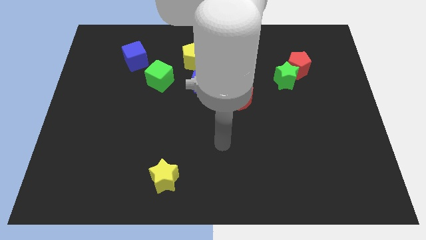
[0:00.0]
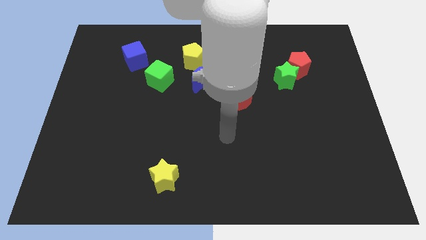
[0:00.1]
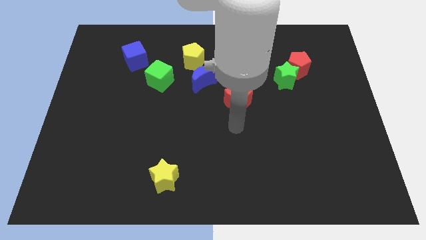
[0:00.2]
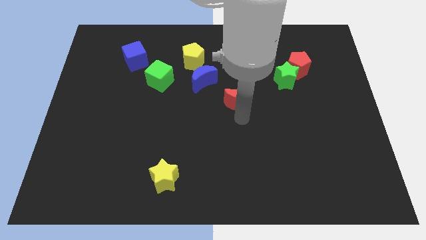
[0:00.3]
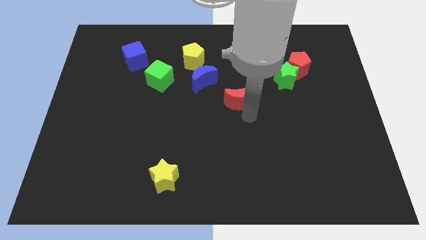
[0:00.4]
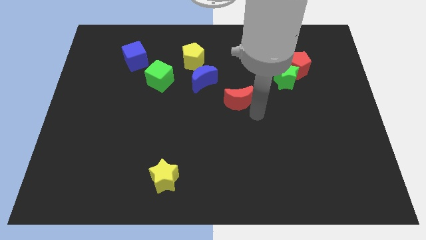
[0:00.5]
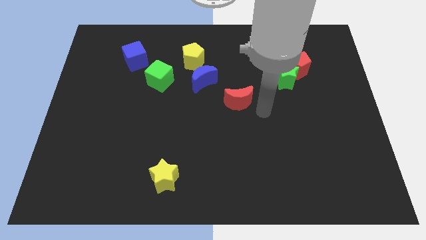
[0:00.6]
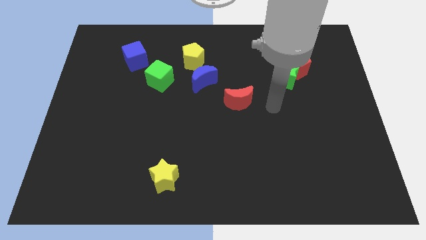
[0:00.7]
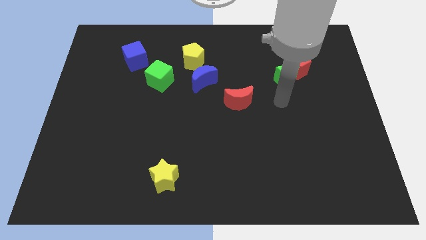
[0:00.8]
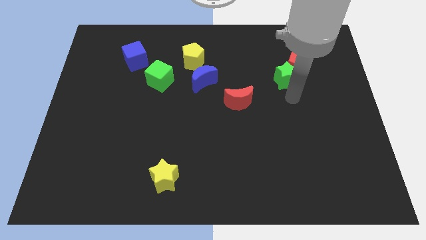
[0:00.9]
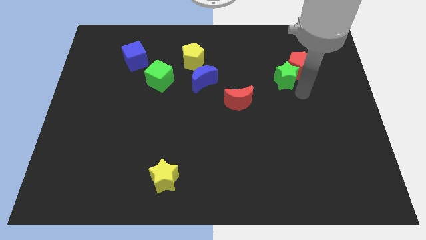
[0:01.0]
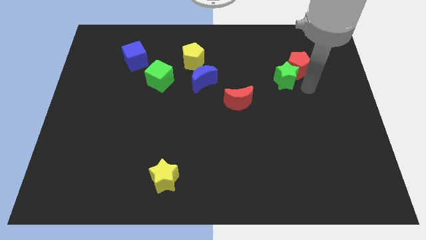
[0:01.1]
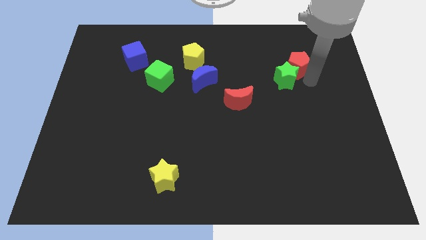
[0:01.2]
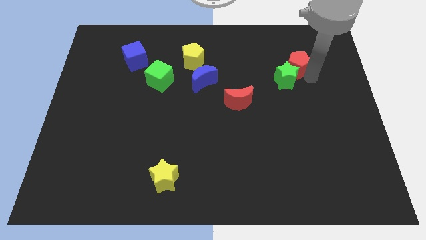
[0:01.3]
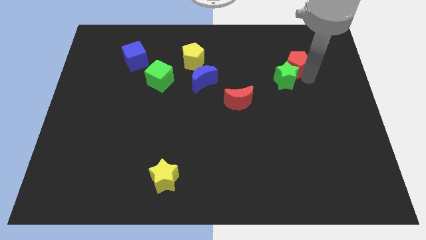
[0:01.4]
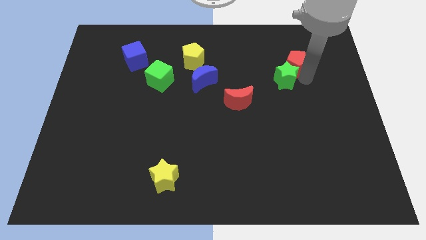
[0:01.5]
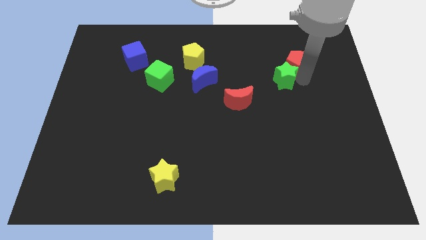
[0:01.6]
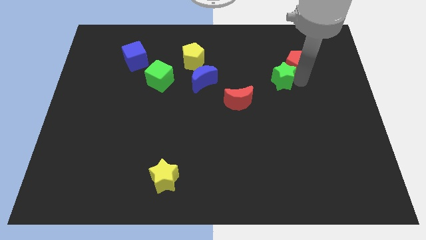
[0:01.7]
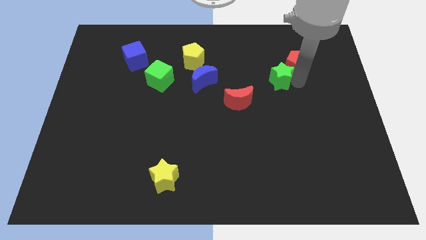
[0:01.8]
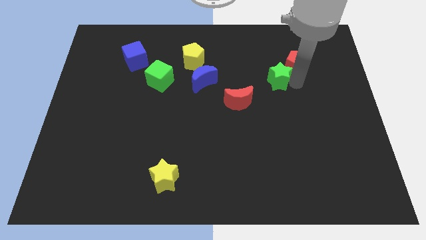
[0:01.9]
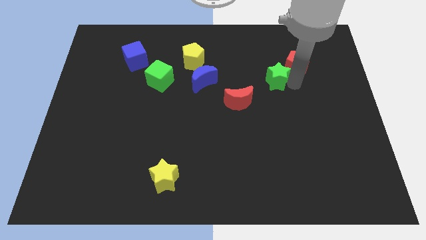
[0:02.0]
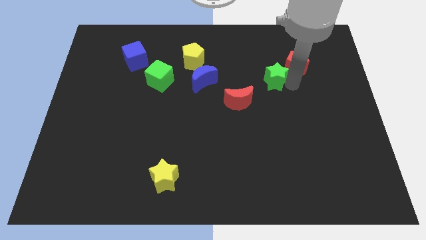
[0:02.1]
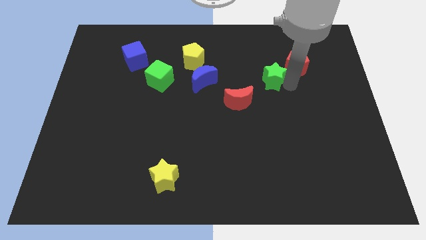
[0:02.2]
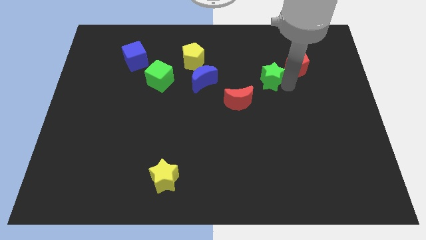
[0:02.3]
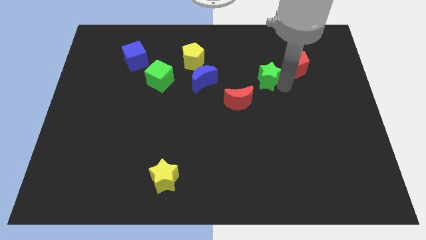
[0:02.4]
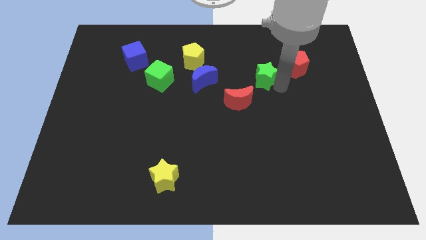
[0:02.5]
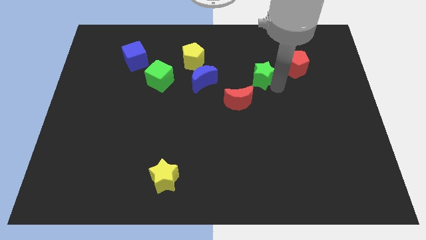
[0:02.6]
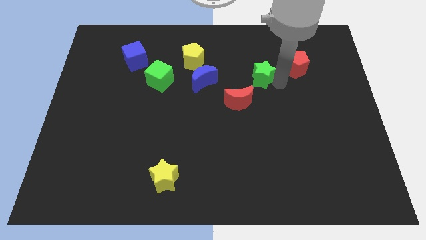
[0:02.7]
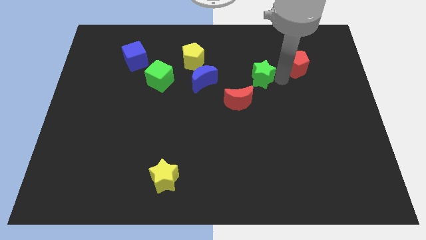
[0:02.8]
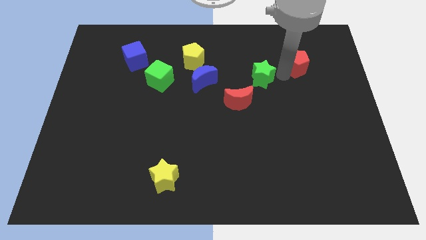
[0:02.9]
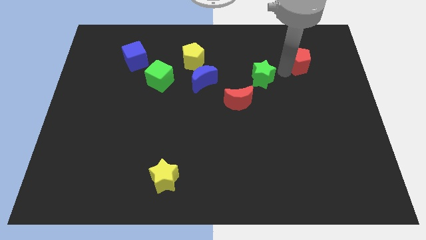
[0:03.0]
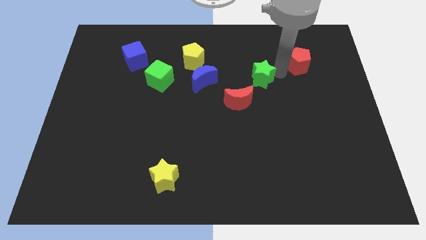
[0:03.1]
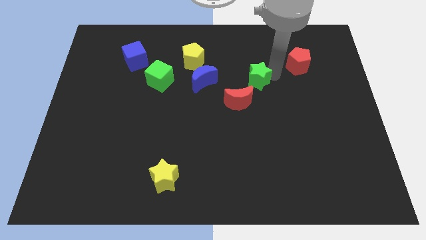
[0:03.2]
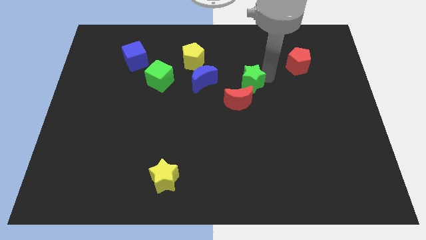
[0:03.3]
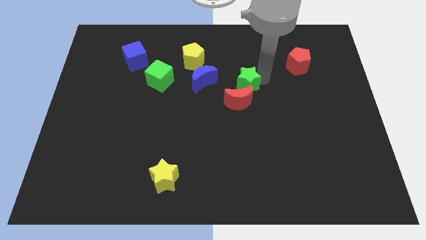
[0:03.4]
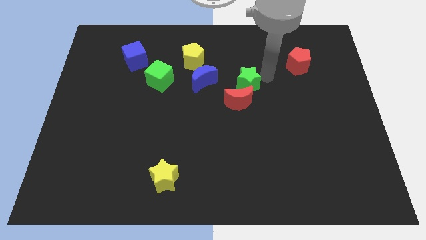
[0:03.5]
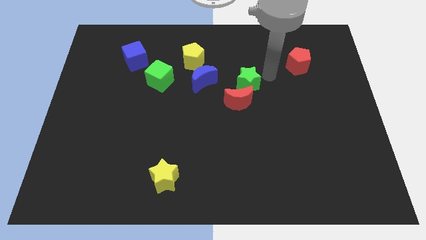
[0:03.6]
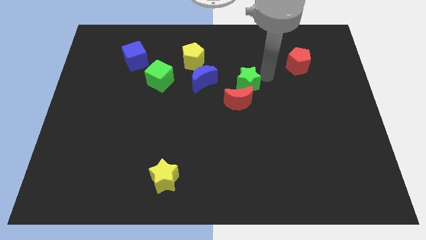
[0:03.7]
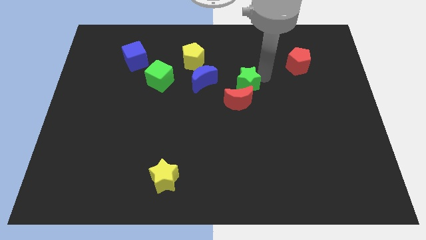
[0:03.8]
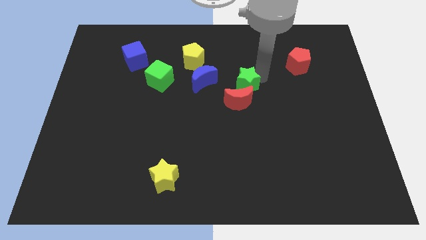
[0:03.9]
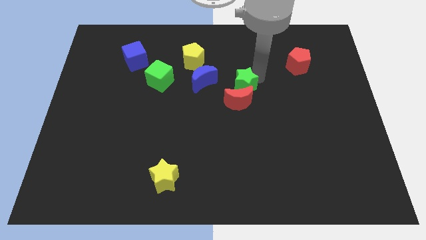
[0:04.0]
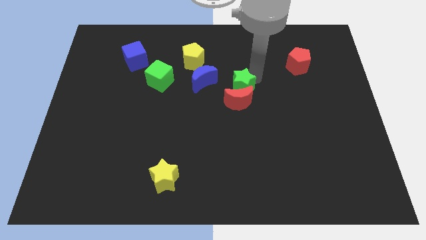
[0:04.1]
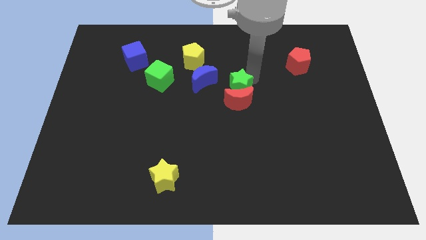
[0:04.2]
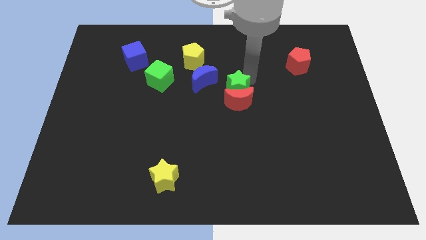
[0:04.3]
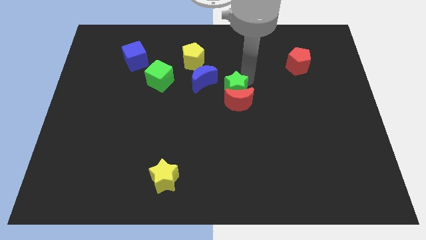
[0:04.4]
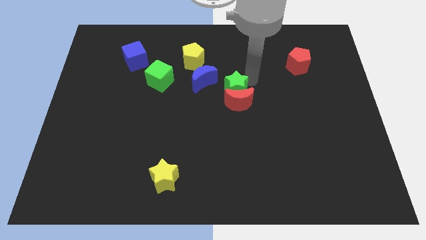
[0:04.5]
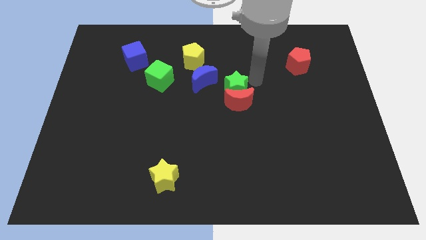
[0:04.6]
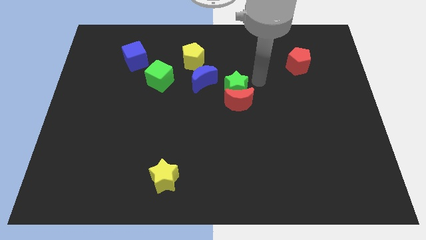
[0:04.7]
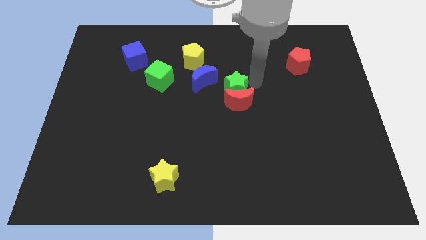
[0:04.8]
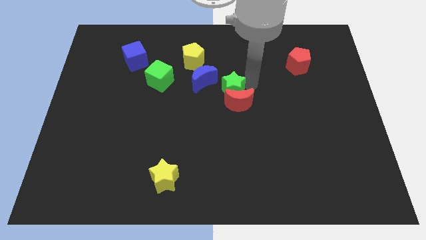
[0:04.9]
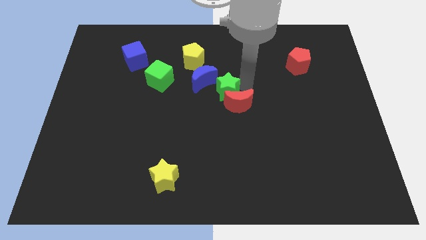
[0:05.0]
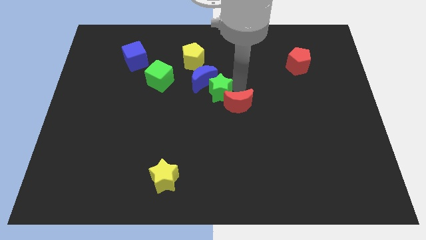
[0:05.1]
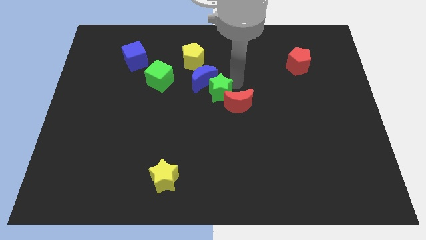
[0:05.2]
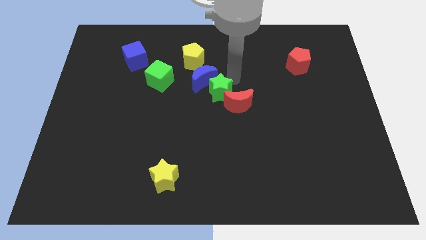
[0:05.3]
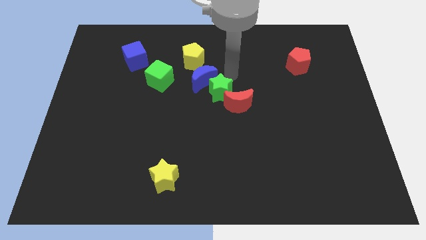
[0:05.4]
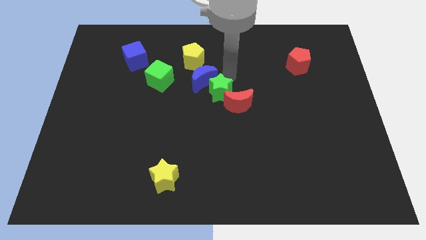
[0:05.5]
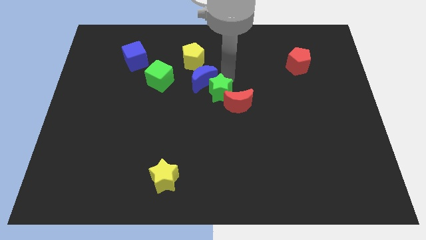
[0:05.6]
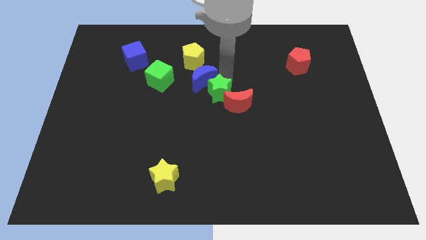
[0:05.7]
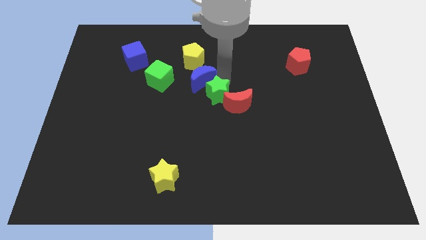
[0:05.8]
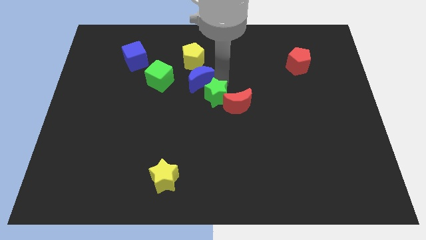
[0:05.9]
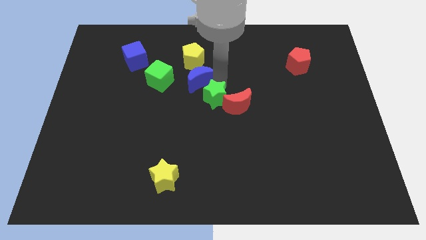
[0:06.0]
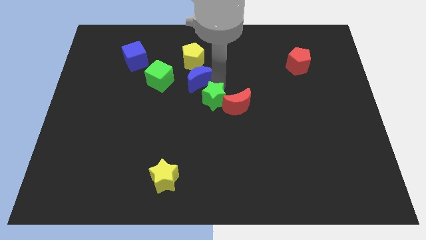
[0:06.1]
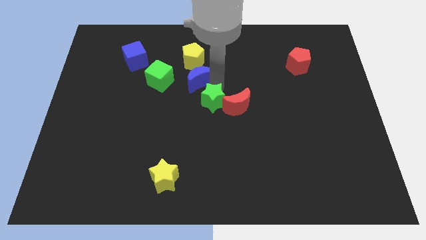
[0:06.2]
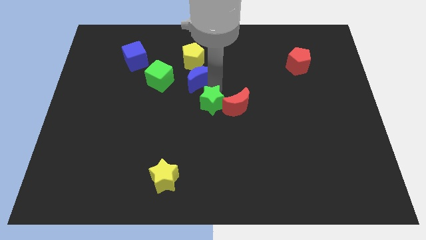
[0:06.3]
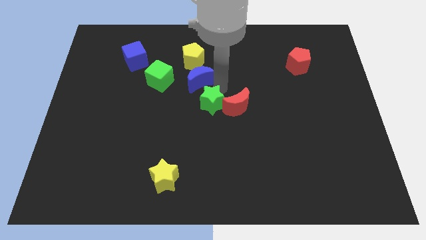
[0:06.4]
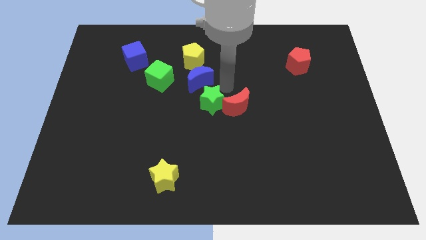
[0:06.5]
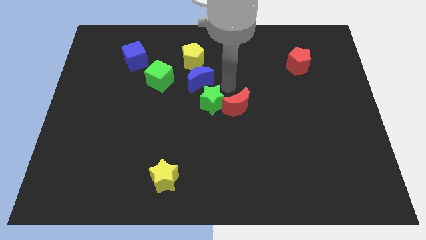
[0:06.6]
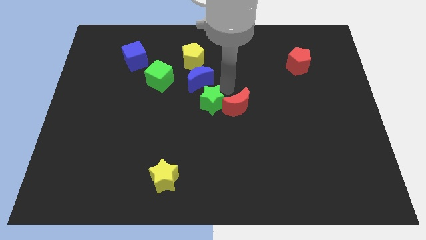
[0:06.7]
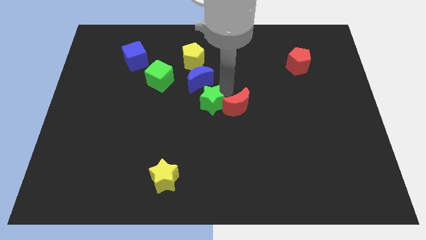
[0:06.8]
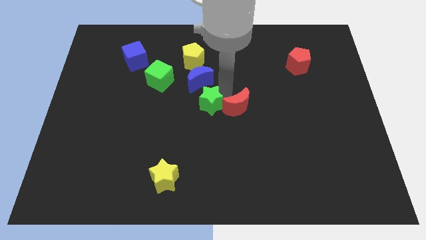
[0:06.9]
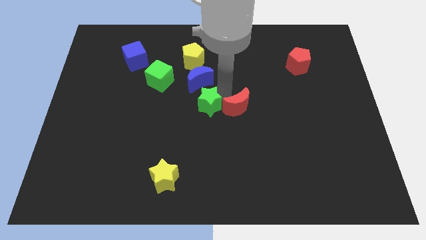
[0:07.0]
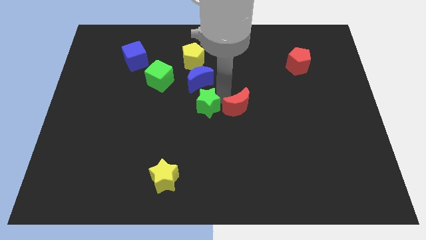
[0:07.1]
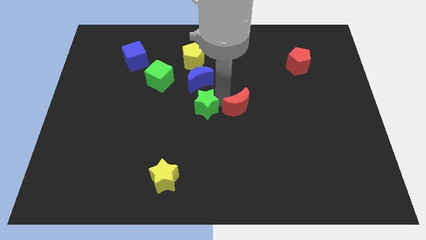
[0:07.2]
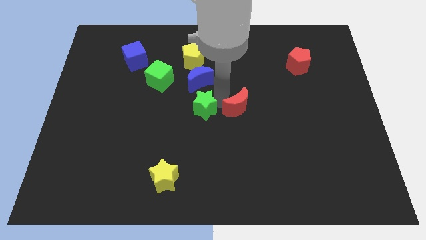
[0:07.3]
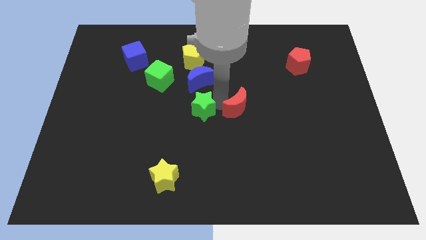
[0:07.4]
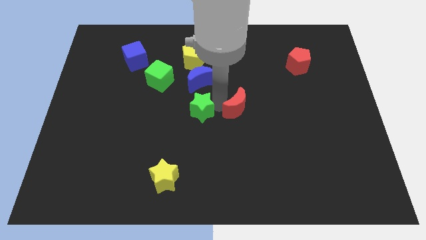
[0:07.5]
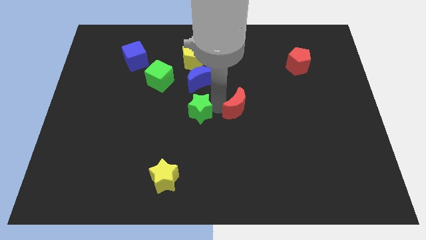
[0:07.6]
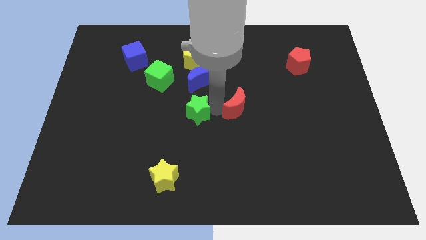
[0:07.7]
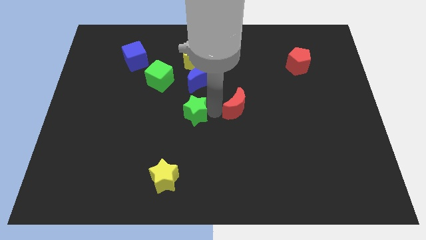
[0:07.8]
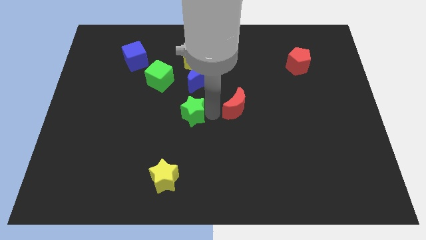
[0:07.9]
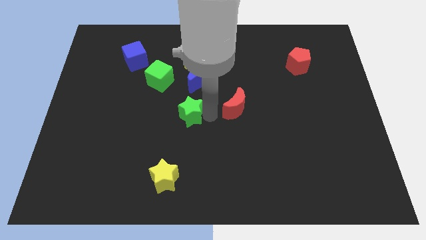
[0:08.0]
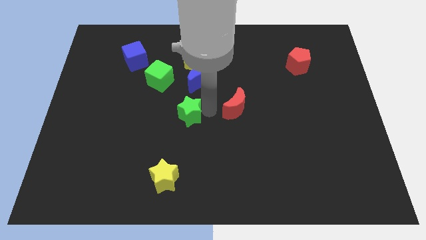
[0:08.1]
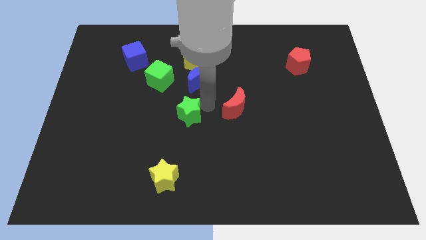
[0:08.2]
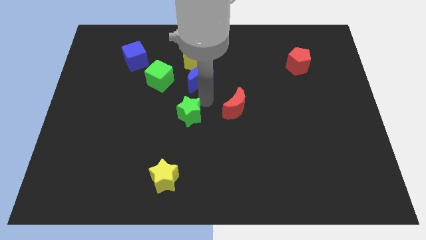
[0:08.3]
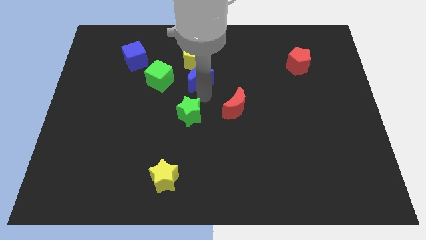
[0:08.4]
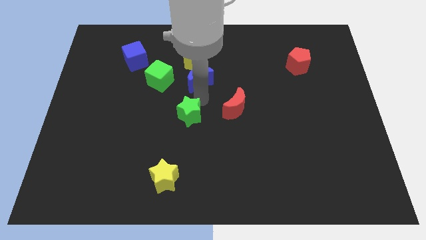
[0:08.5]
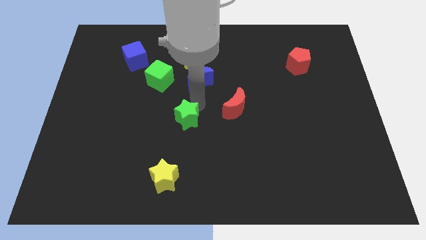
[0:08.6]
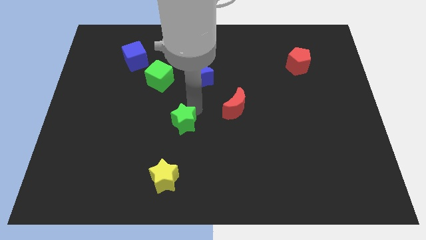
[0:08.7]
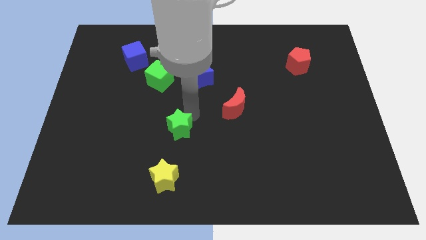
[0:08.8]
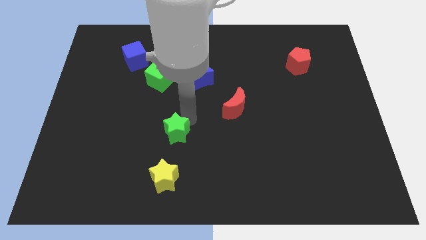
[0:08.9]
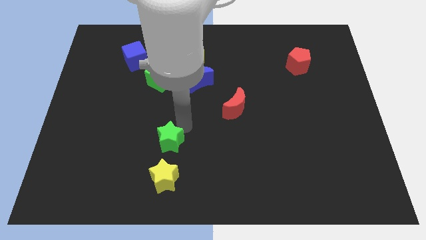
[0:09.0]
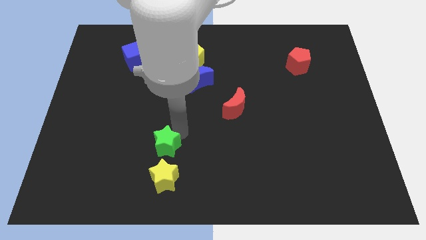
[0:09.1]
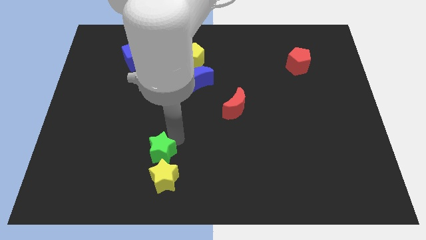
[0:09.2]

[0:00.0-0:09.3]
move the green star to the top left side of the yellow star
